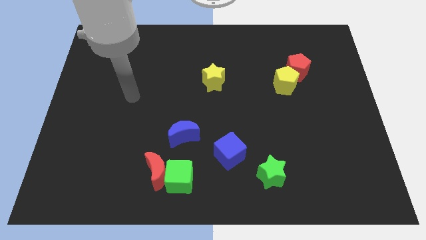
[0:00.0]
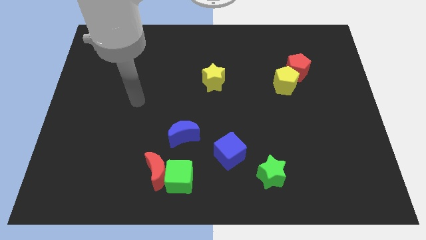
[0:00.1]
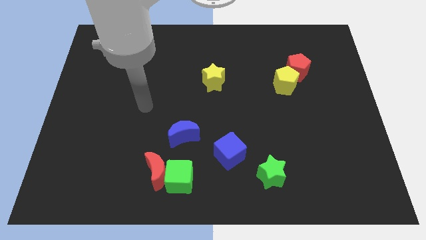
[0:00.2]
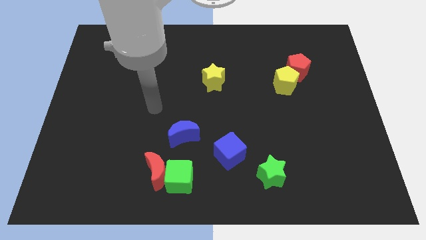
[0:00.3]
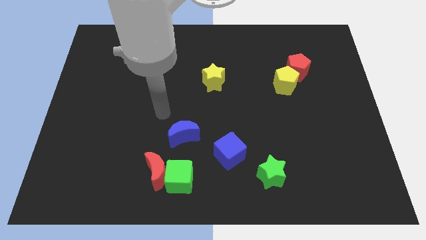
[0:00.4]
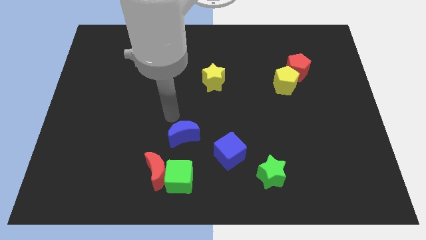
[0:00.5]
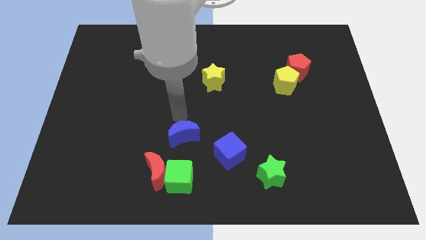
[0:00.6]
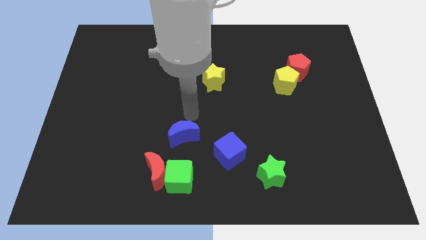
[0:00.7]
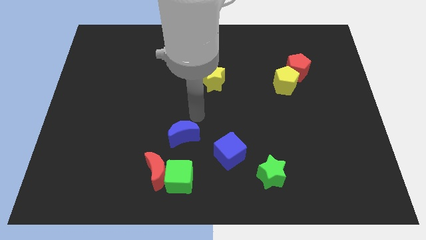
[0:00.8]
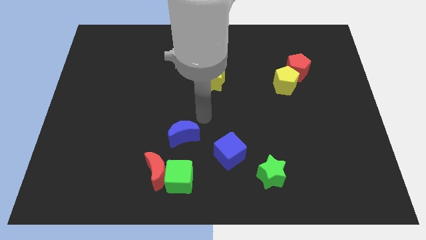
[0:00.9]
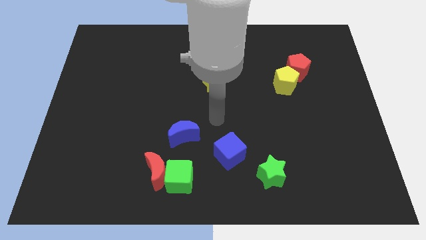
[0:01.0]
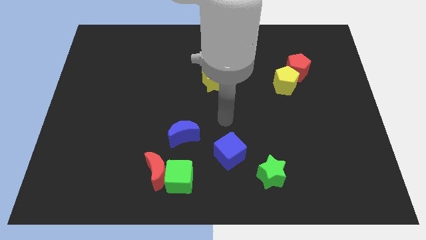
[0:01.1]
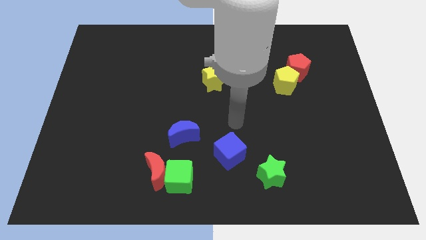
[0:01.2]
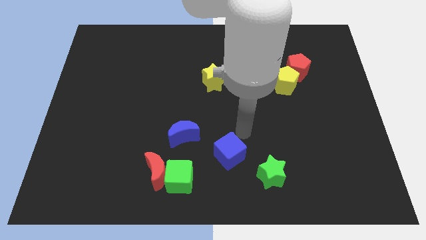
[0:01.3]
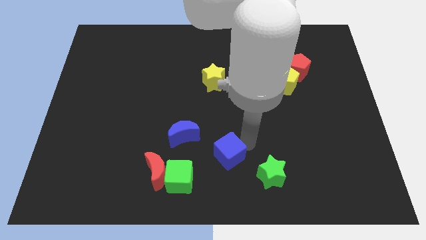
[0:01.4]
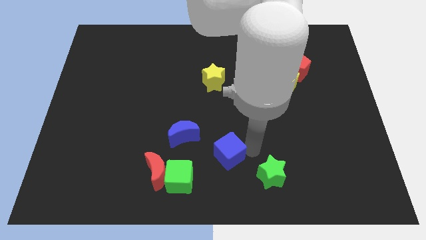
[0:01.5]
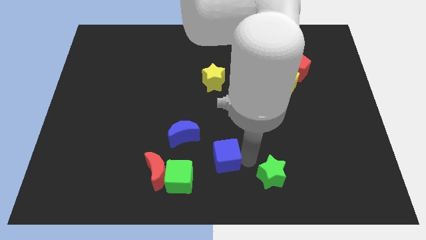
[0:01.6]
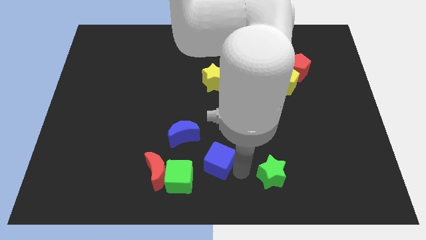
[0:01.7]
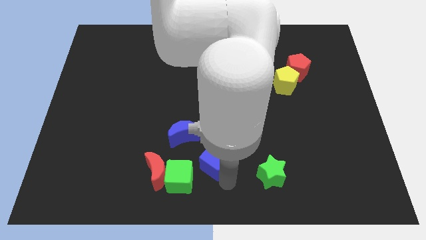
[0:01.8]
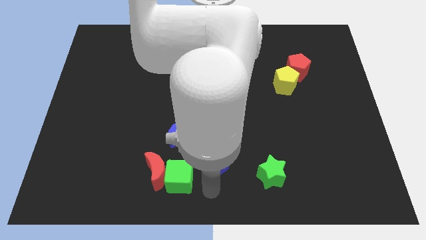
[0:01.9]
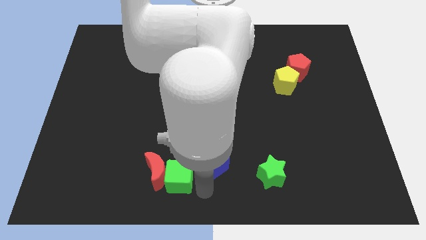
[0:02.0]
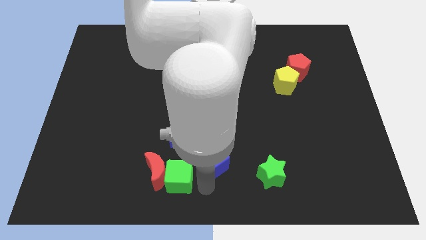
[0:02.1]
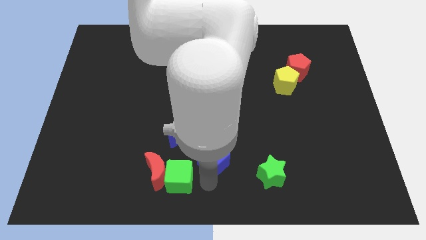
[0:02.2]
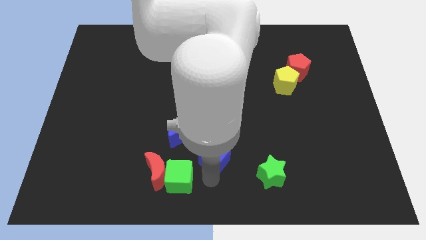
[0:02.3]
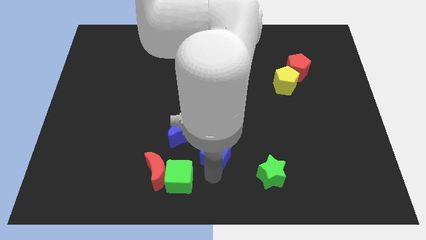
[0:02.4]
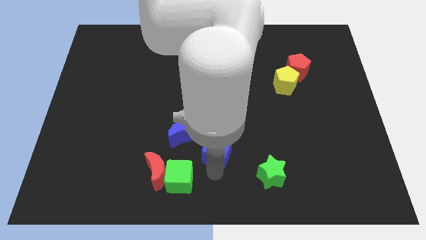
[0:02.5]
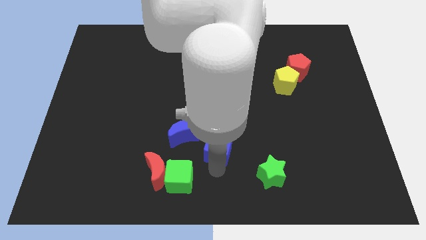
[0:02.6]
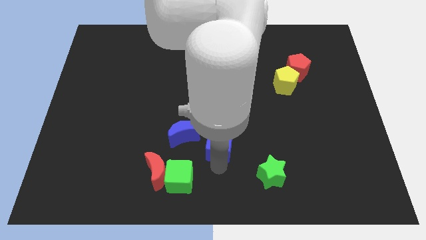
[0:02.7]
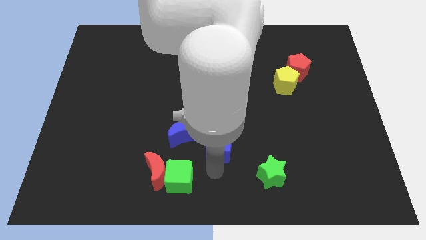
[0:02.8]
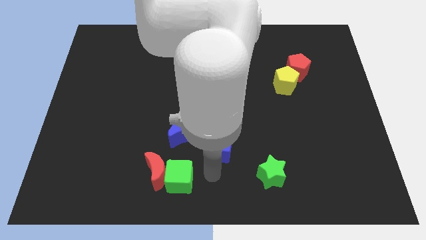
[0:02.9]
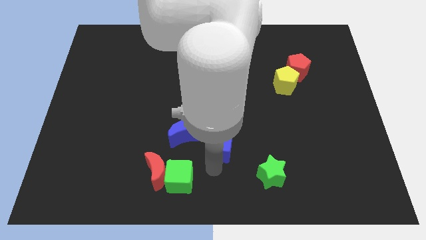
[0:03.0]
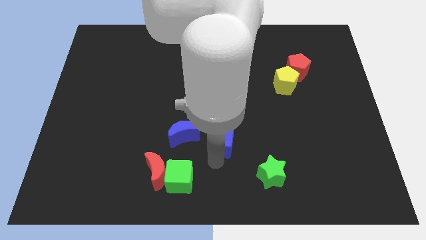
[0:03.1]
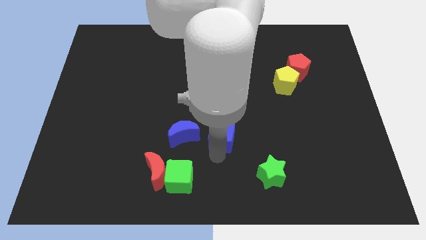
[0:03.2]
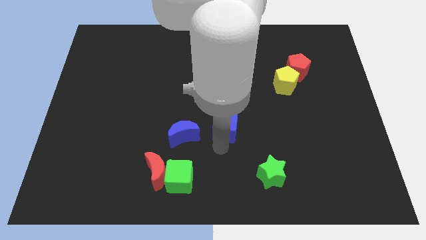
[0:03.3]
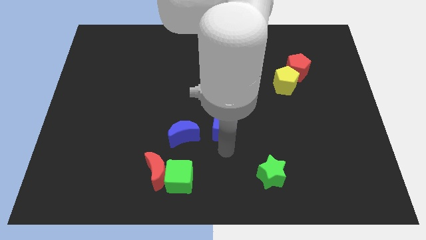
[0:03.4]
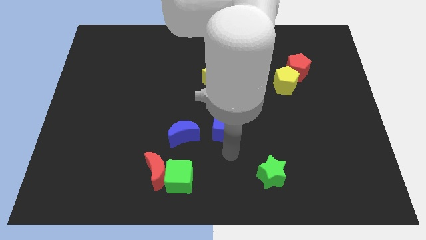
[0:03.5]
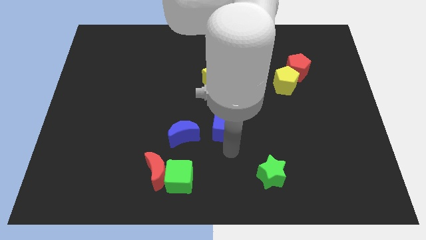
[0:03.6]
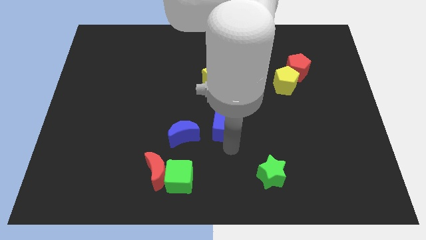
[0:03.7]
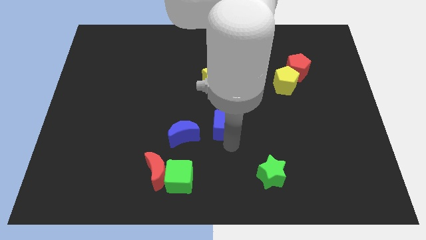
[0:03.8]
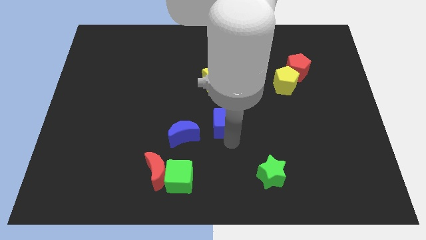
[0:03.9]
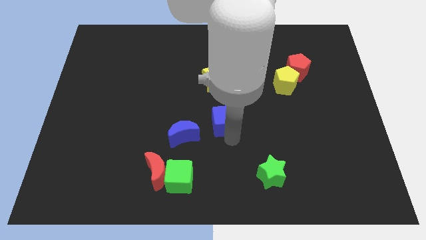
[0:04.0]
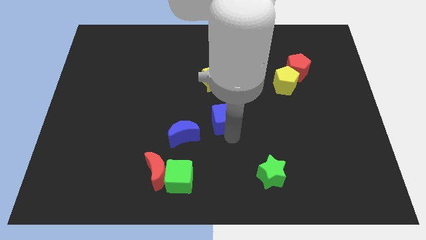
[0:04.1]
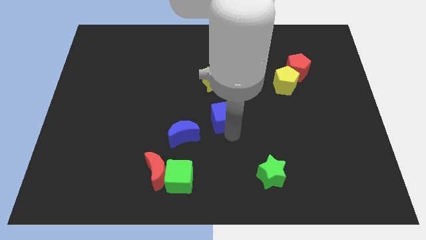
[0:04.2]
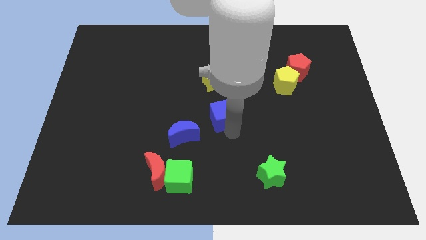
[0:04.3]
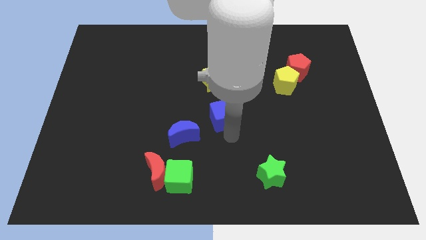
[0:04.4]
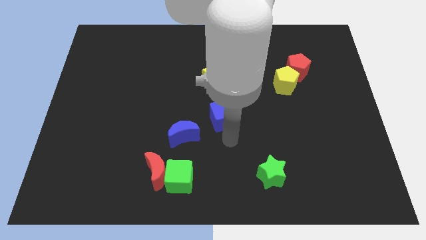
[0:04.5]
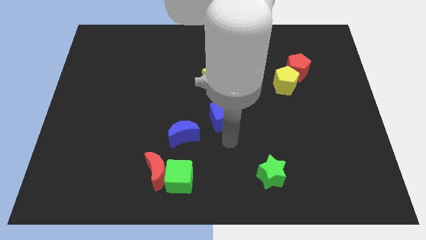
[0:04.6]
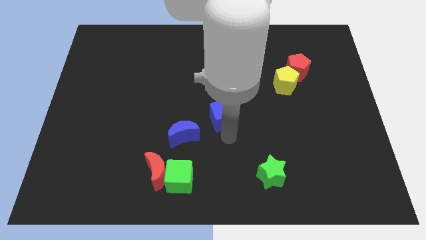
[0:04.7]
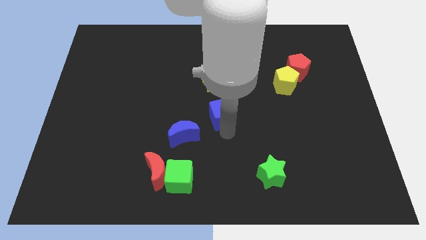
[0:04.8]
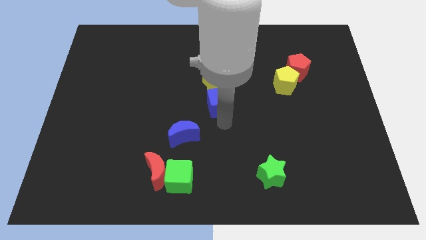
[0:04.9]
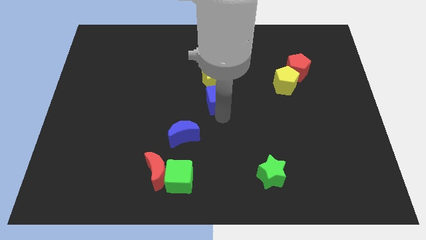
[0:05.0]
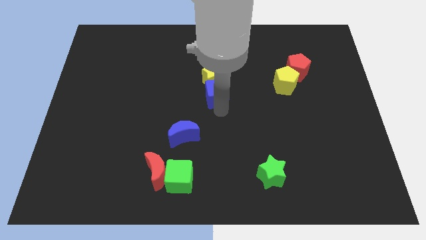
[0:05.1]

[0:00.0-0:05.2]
move the blue cube next to the yellow star

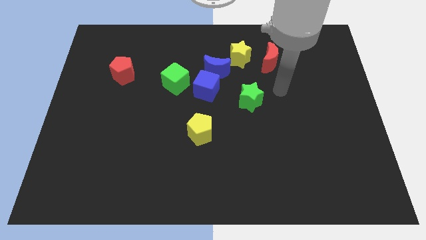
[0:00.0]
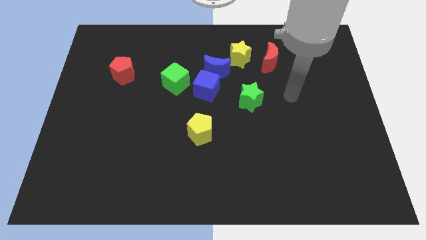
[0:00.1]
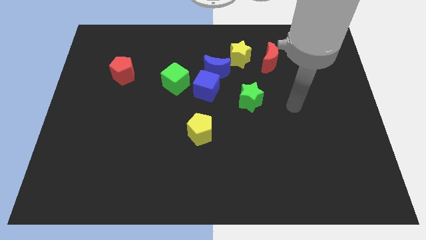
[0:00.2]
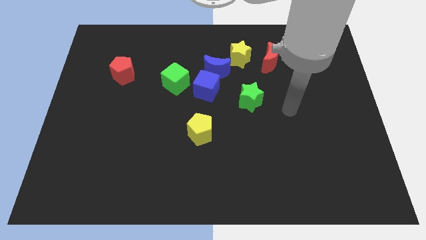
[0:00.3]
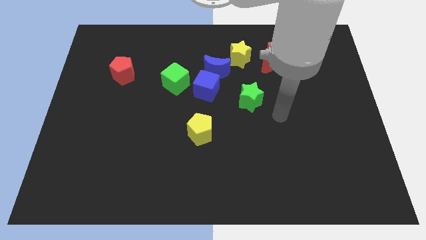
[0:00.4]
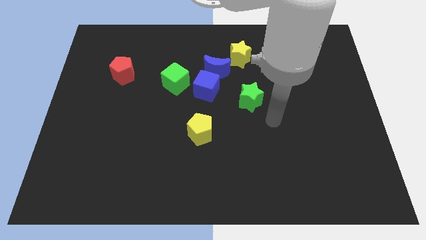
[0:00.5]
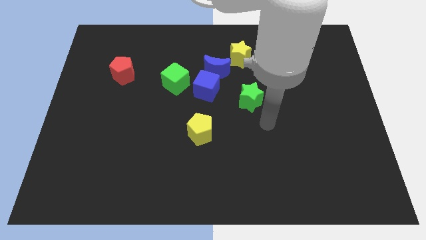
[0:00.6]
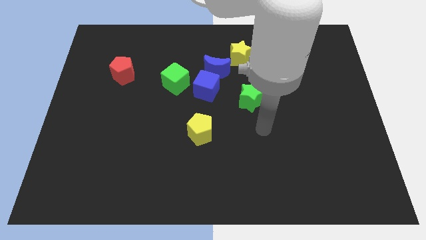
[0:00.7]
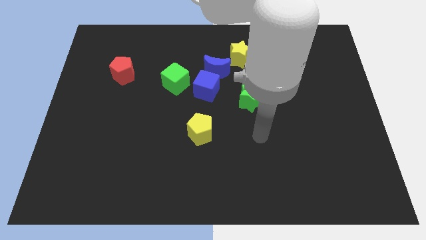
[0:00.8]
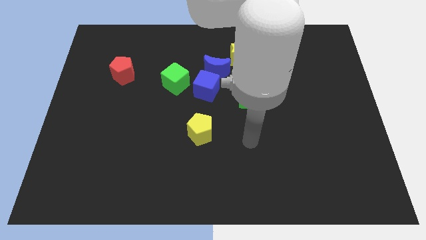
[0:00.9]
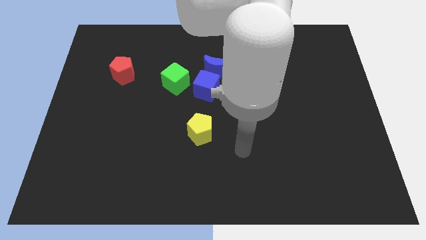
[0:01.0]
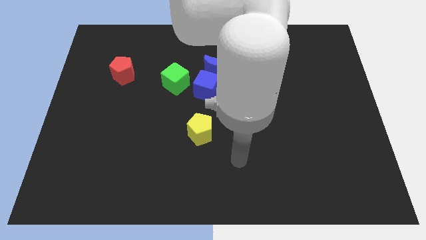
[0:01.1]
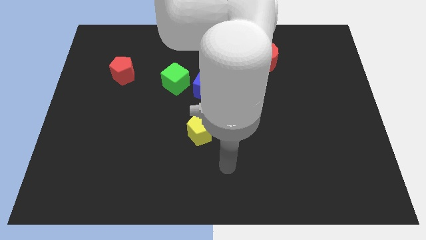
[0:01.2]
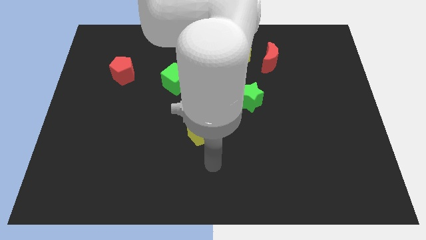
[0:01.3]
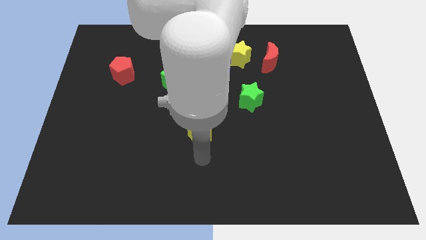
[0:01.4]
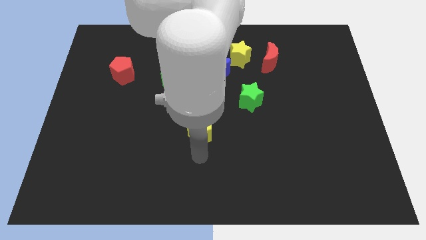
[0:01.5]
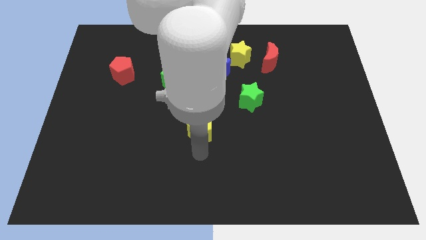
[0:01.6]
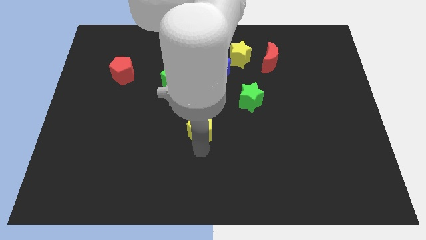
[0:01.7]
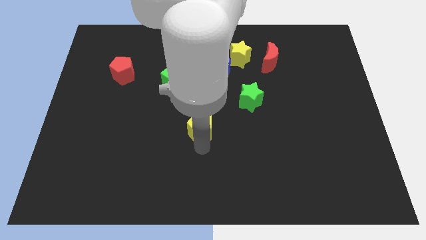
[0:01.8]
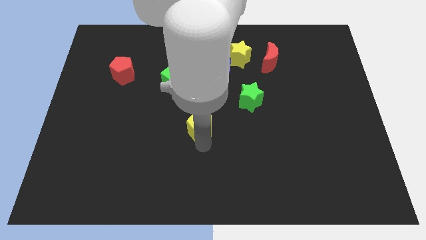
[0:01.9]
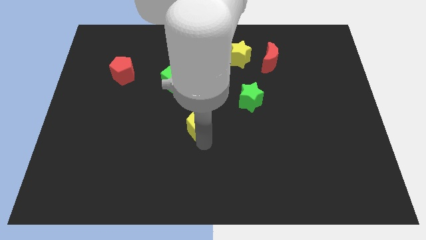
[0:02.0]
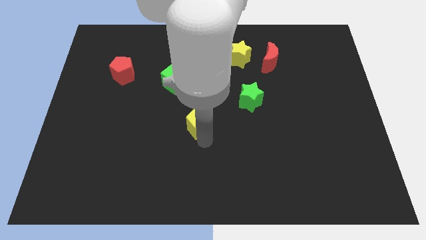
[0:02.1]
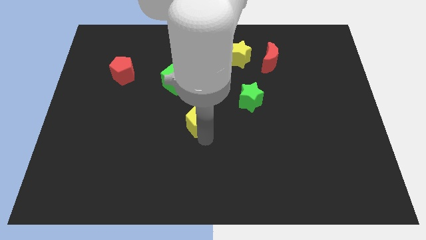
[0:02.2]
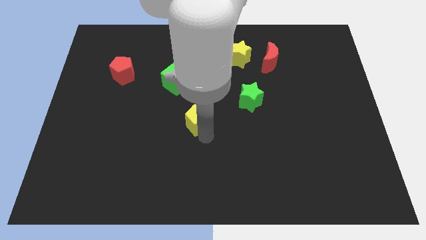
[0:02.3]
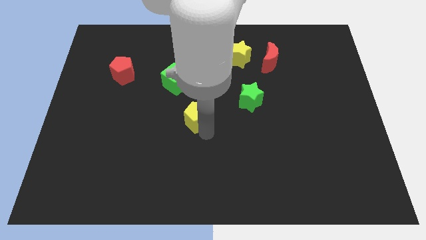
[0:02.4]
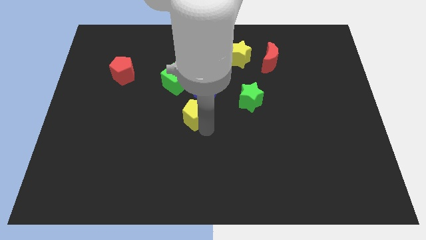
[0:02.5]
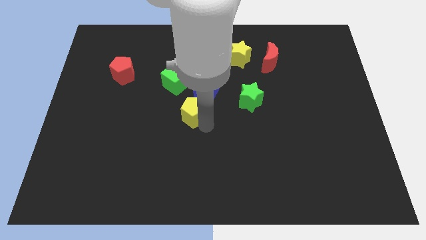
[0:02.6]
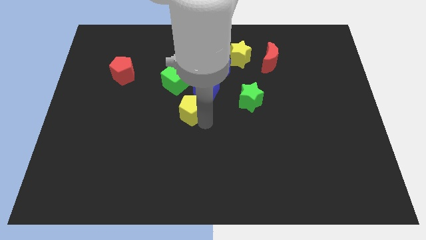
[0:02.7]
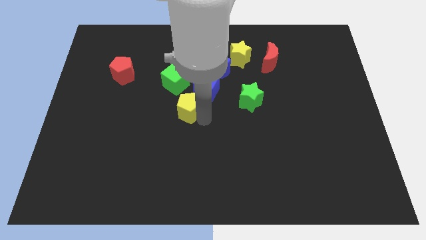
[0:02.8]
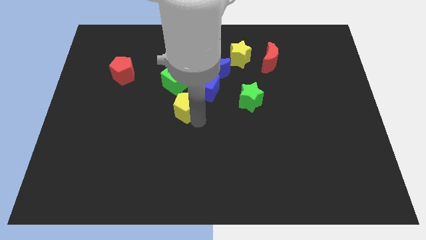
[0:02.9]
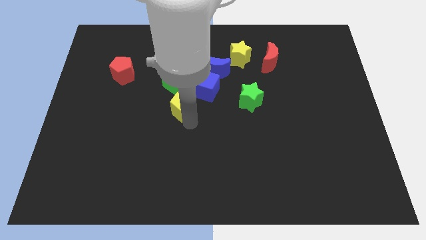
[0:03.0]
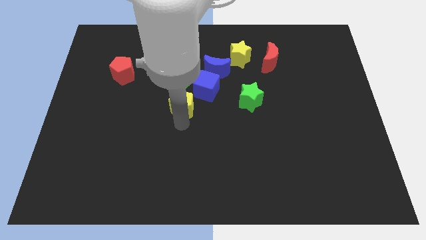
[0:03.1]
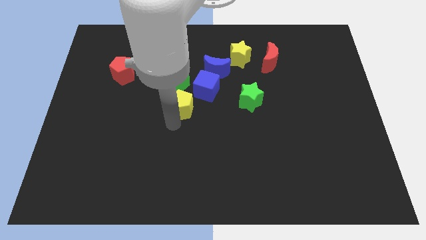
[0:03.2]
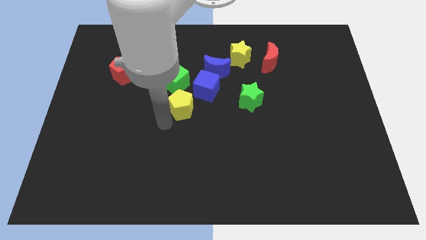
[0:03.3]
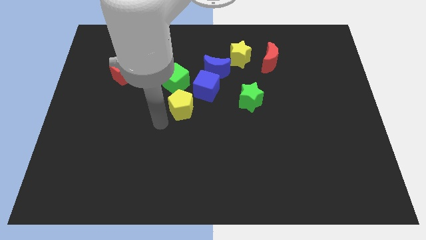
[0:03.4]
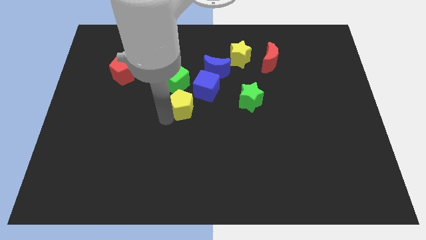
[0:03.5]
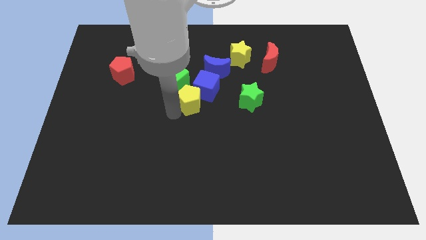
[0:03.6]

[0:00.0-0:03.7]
push the yellow pentagon close to the blue cube
